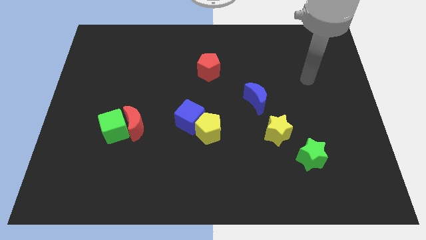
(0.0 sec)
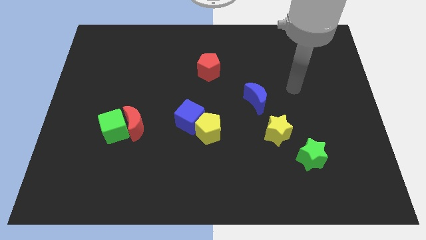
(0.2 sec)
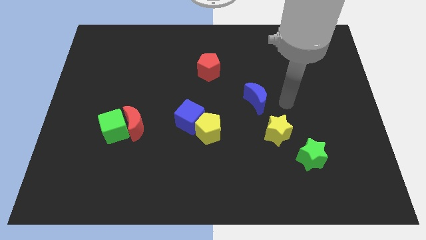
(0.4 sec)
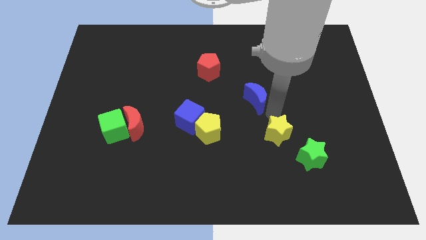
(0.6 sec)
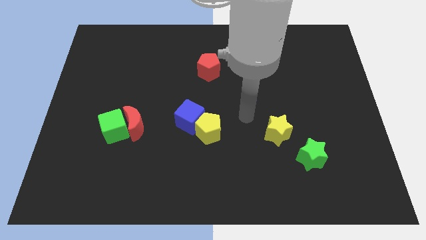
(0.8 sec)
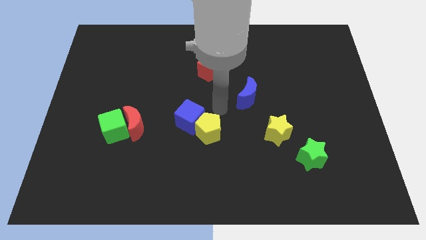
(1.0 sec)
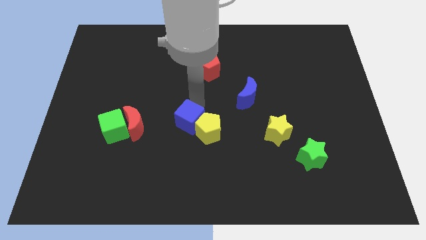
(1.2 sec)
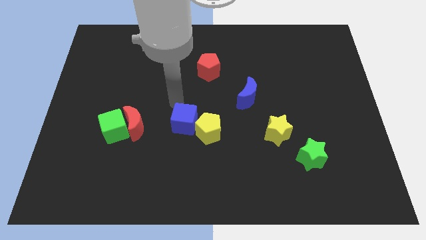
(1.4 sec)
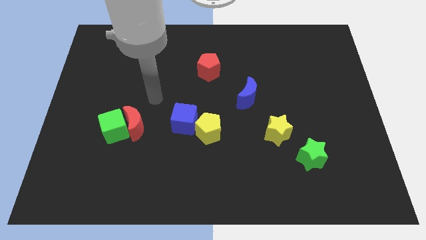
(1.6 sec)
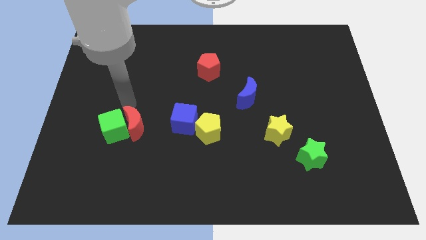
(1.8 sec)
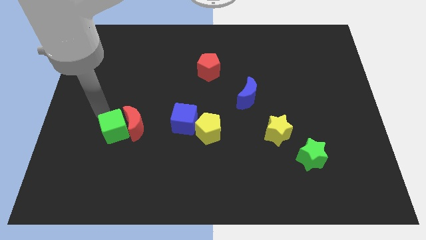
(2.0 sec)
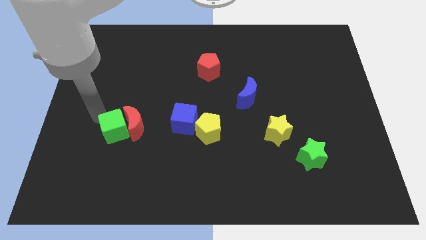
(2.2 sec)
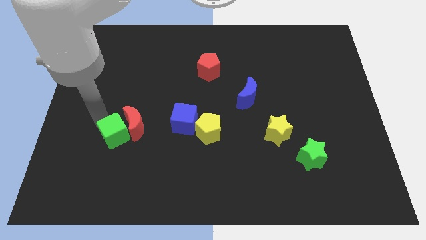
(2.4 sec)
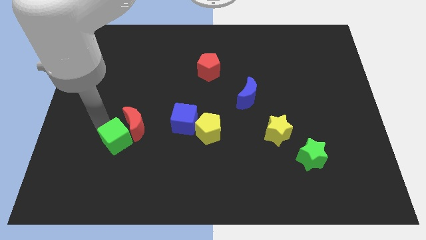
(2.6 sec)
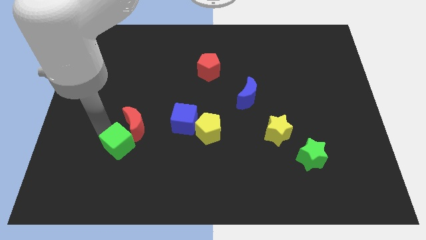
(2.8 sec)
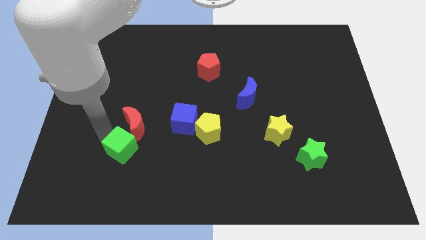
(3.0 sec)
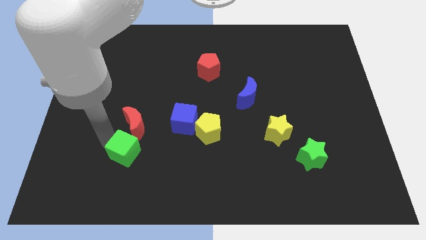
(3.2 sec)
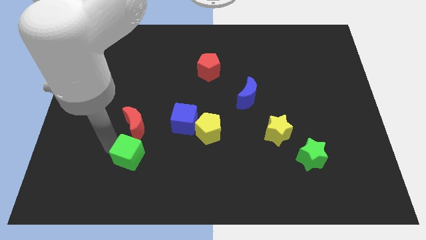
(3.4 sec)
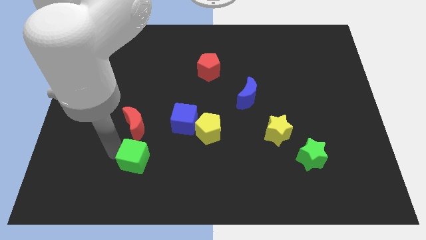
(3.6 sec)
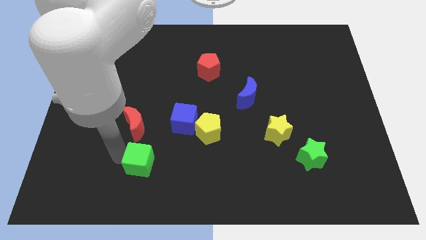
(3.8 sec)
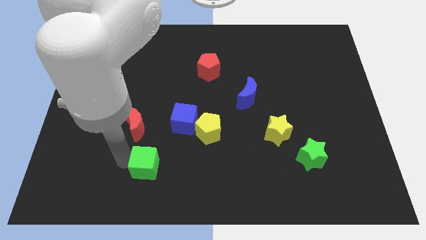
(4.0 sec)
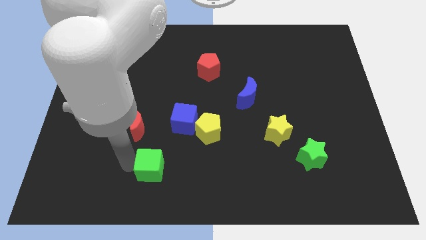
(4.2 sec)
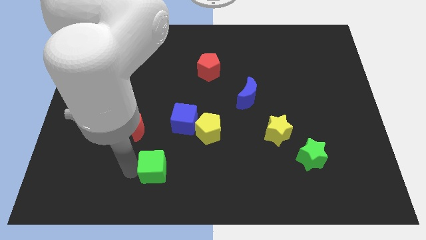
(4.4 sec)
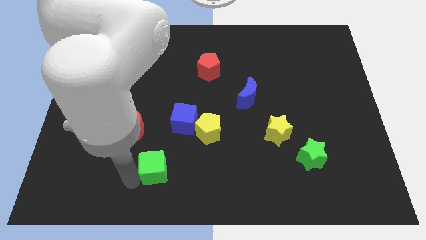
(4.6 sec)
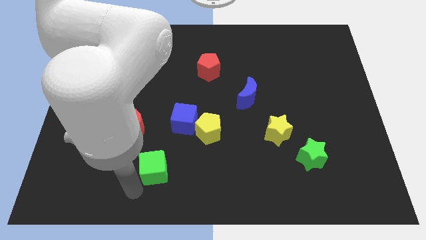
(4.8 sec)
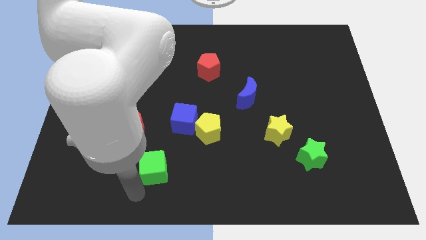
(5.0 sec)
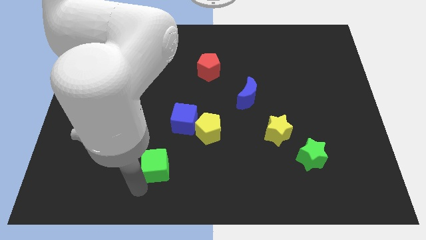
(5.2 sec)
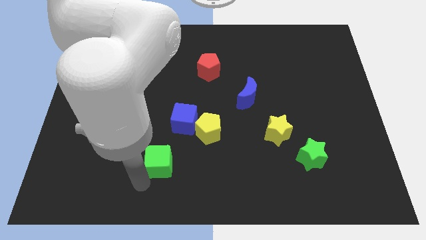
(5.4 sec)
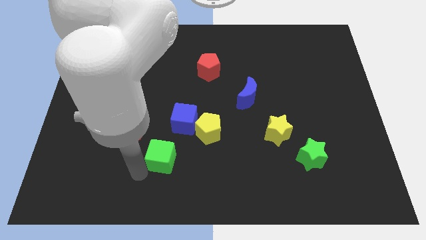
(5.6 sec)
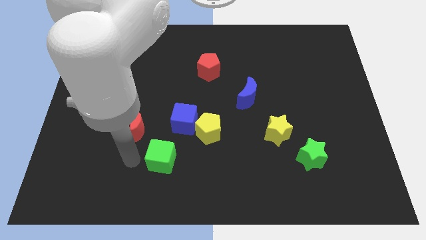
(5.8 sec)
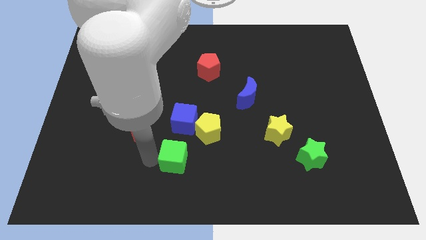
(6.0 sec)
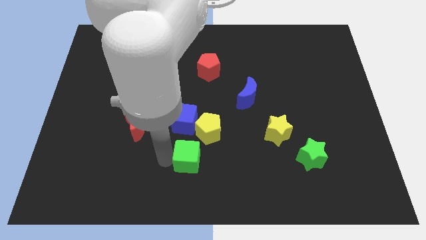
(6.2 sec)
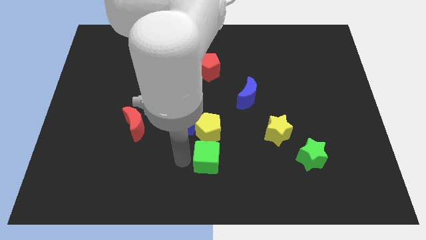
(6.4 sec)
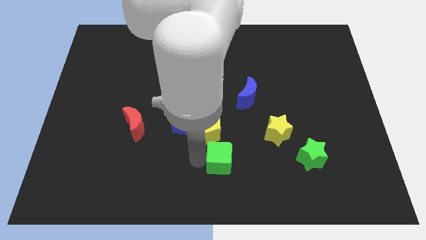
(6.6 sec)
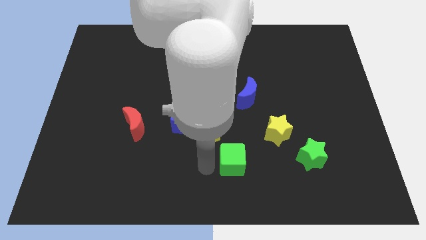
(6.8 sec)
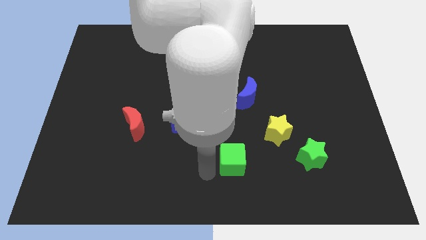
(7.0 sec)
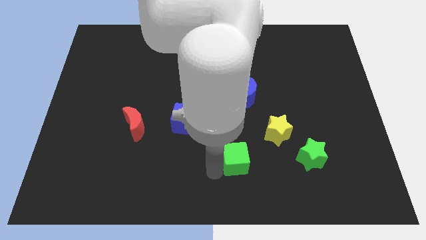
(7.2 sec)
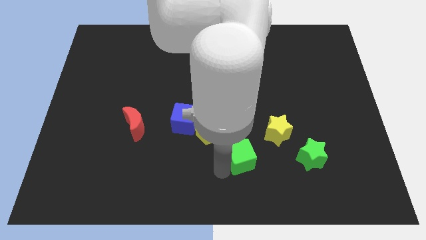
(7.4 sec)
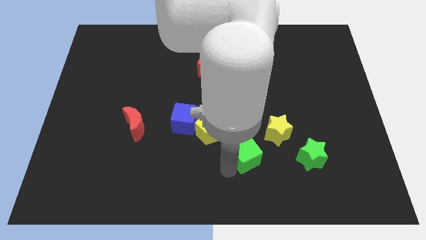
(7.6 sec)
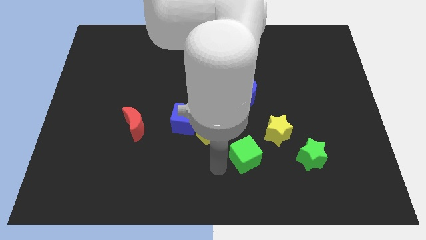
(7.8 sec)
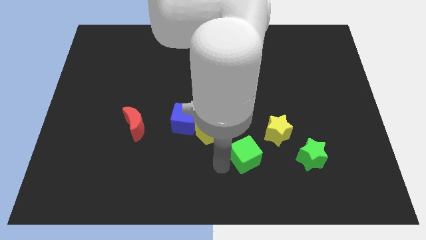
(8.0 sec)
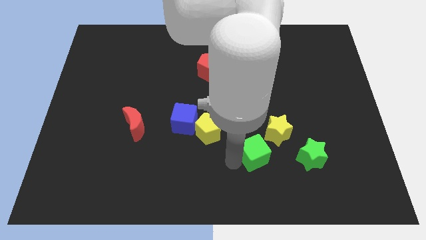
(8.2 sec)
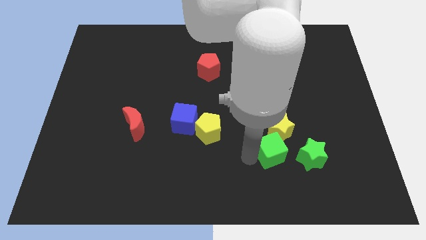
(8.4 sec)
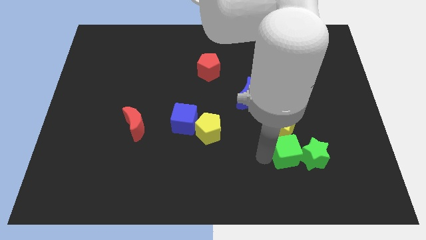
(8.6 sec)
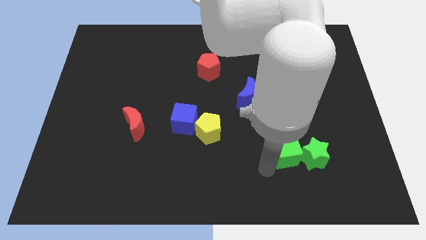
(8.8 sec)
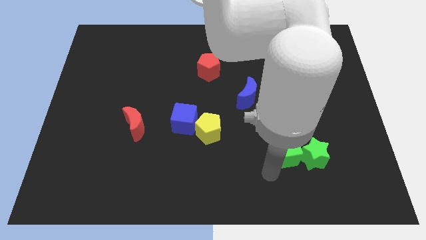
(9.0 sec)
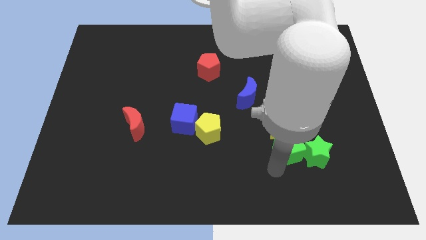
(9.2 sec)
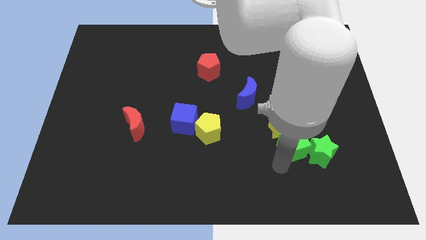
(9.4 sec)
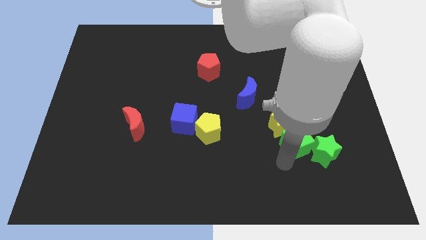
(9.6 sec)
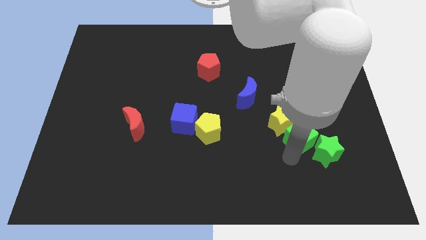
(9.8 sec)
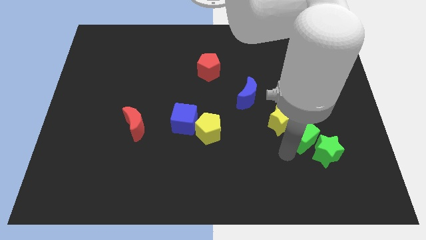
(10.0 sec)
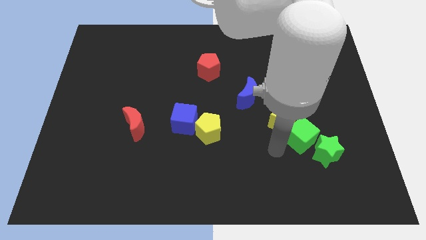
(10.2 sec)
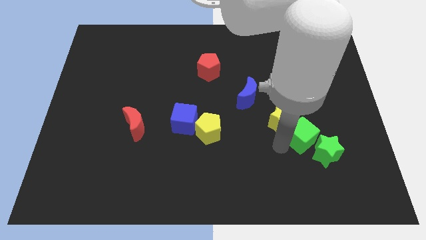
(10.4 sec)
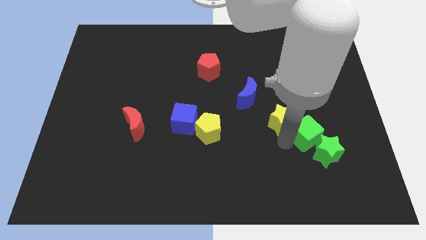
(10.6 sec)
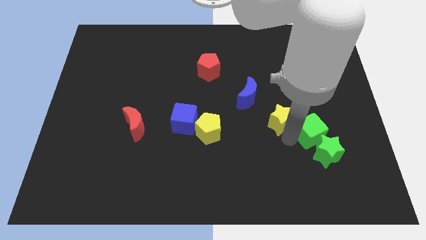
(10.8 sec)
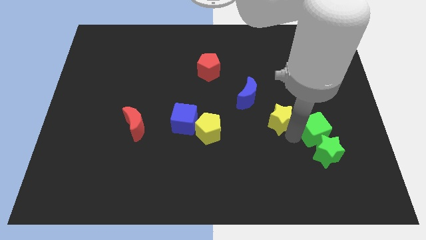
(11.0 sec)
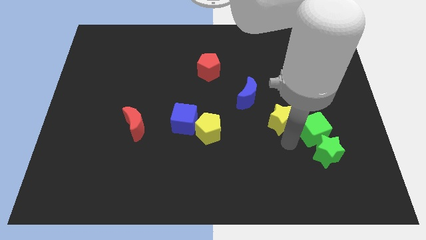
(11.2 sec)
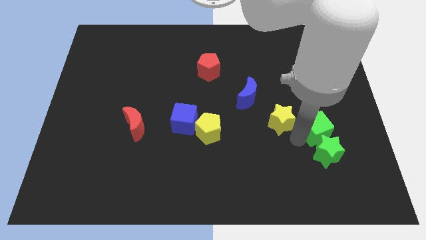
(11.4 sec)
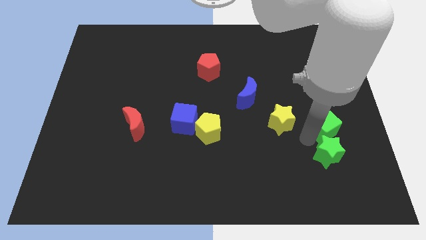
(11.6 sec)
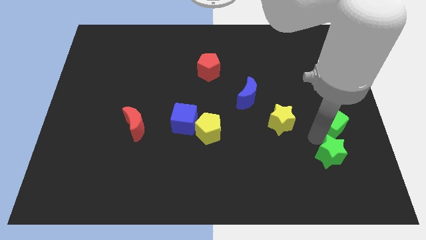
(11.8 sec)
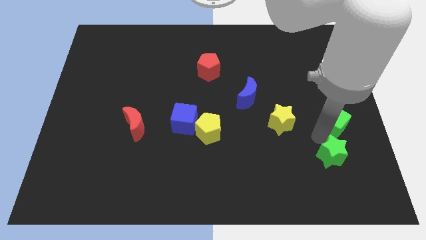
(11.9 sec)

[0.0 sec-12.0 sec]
slide the green cube to the right side

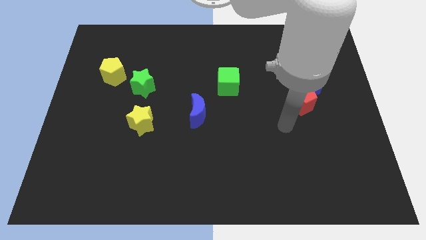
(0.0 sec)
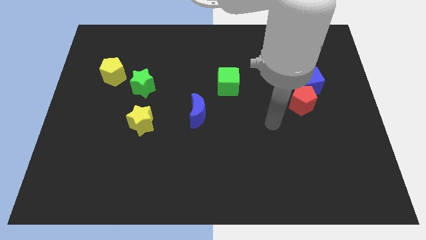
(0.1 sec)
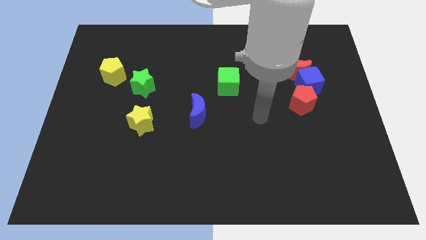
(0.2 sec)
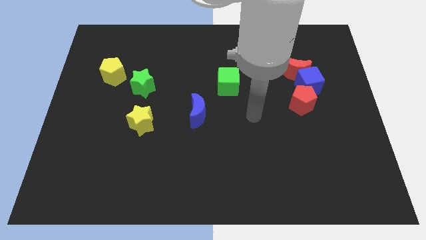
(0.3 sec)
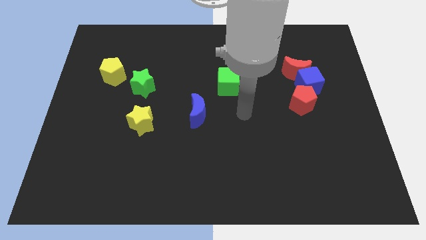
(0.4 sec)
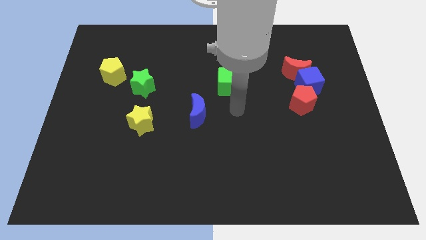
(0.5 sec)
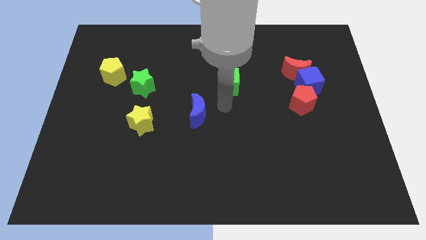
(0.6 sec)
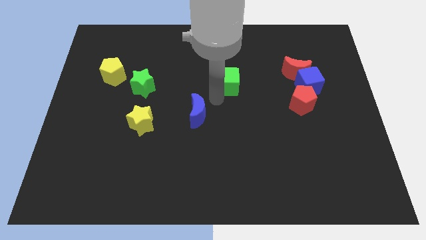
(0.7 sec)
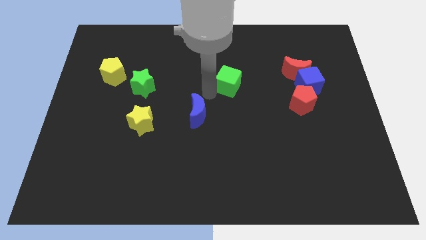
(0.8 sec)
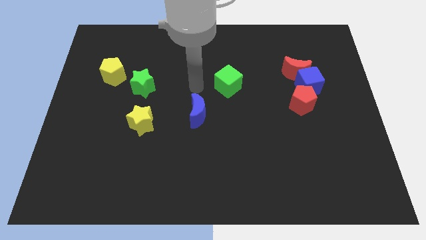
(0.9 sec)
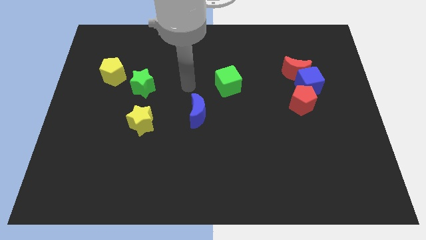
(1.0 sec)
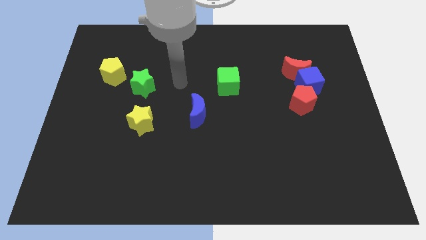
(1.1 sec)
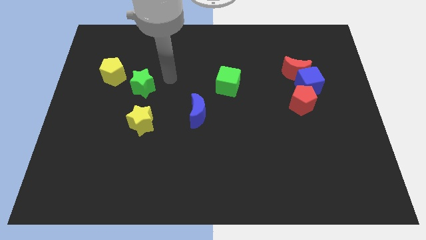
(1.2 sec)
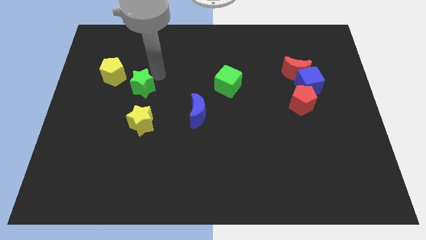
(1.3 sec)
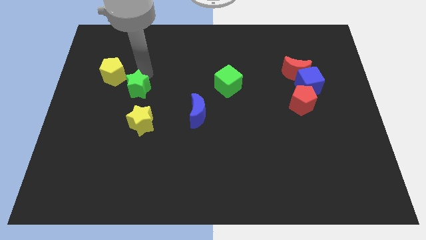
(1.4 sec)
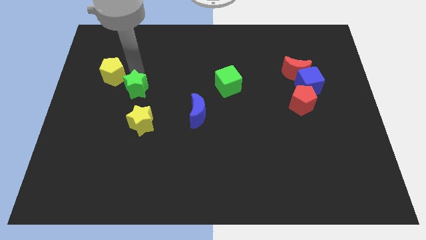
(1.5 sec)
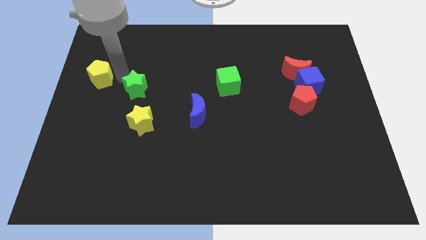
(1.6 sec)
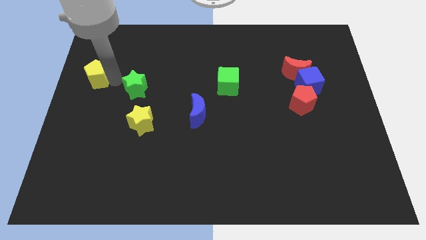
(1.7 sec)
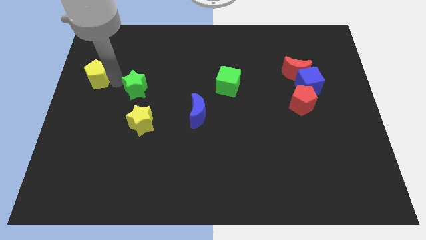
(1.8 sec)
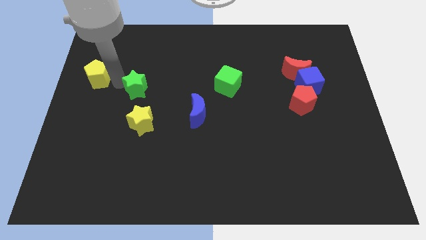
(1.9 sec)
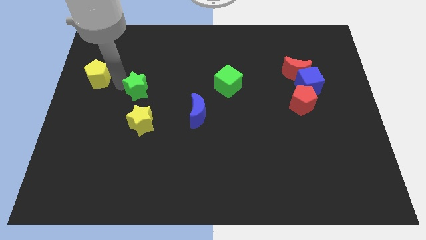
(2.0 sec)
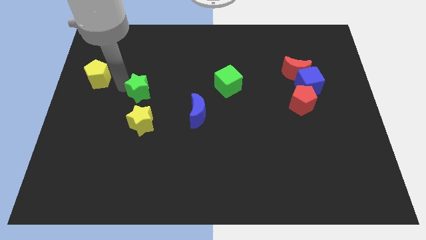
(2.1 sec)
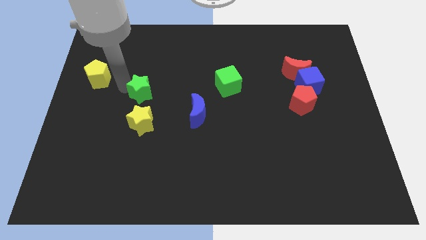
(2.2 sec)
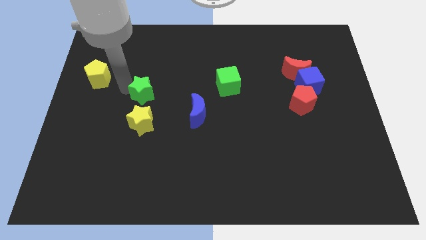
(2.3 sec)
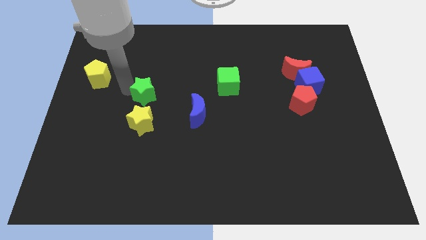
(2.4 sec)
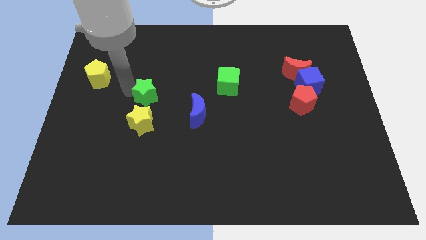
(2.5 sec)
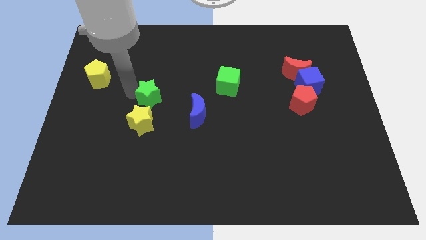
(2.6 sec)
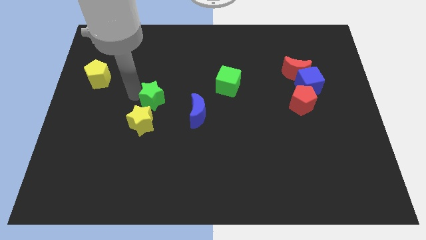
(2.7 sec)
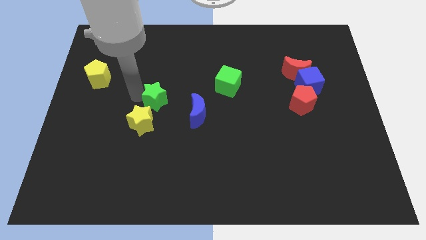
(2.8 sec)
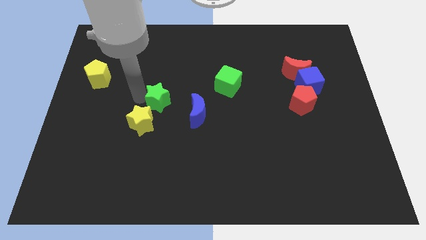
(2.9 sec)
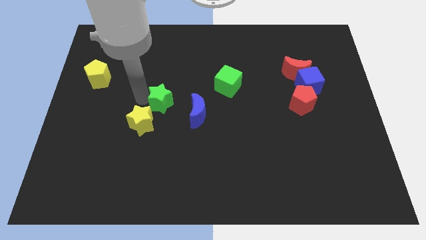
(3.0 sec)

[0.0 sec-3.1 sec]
slide the green star to the middle
